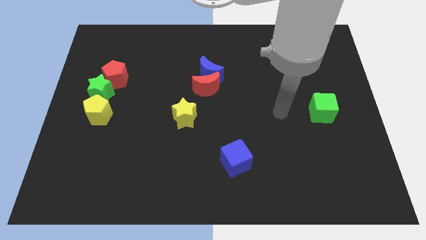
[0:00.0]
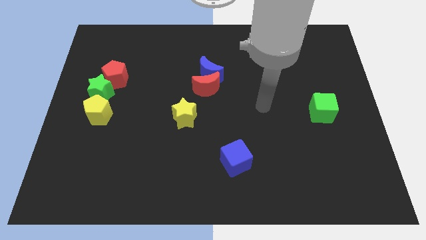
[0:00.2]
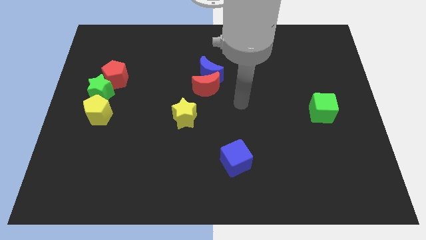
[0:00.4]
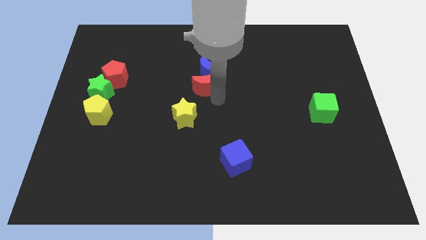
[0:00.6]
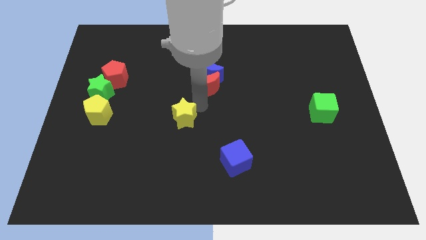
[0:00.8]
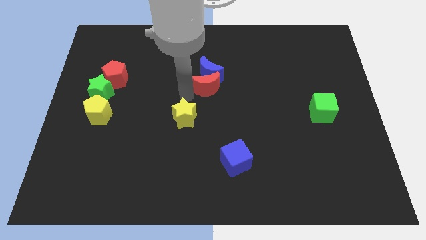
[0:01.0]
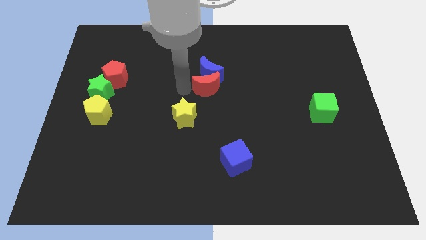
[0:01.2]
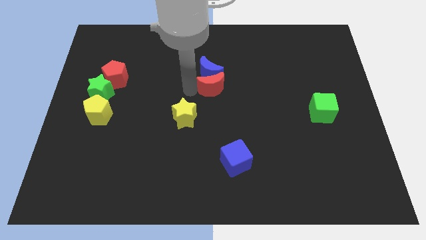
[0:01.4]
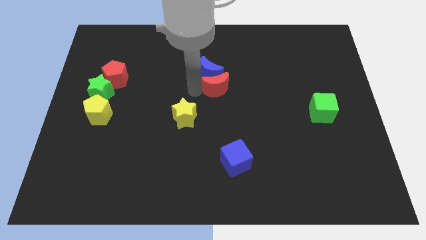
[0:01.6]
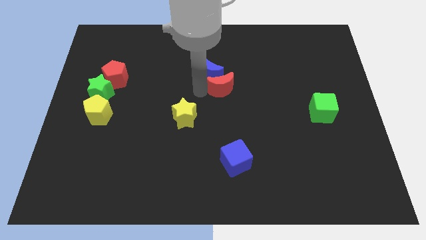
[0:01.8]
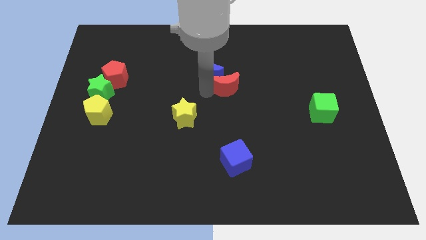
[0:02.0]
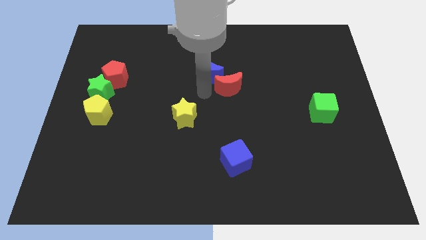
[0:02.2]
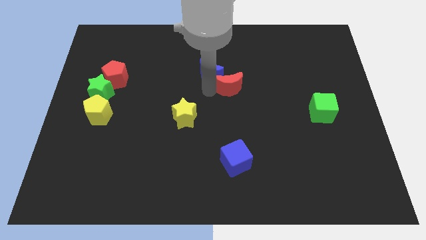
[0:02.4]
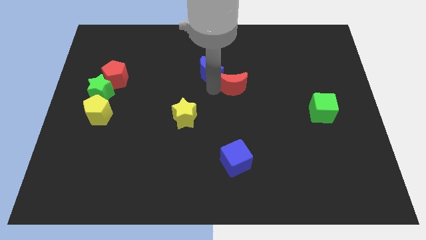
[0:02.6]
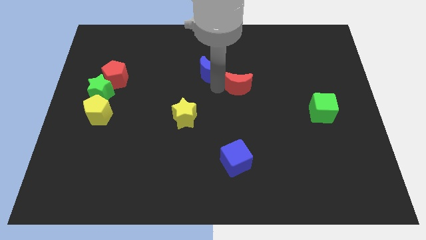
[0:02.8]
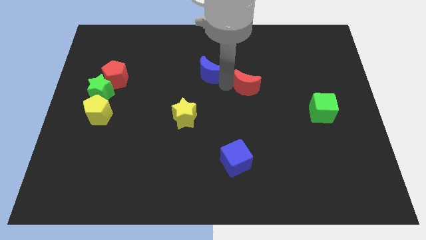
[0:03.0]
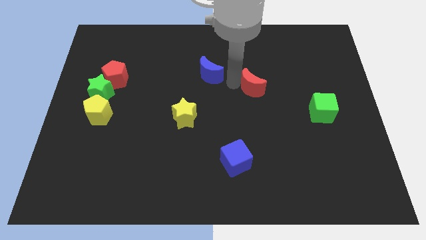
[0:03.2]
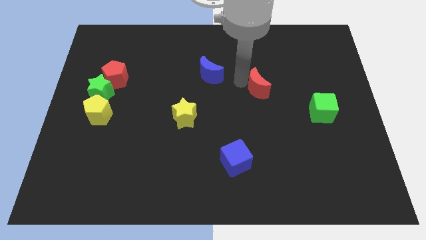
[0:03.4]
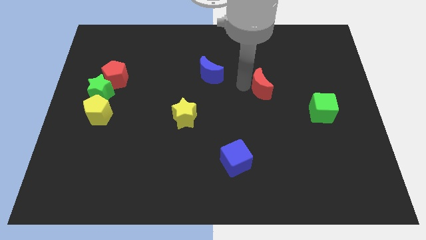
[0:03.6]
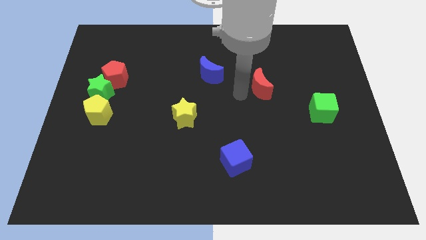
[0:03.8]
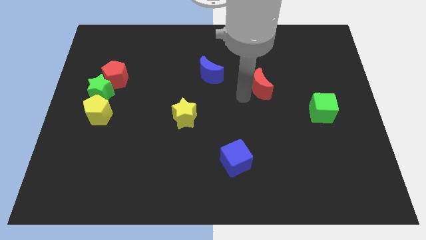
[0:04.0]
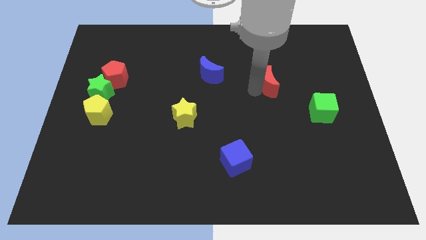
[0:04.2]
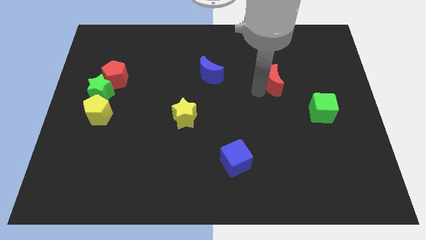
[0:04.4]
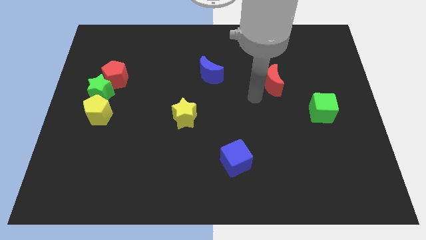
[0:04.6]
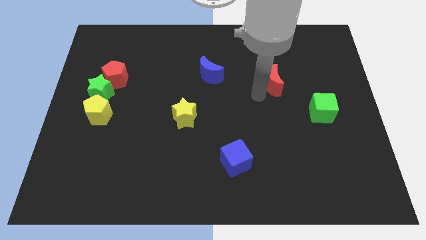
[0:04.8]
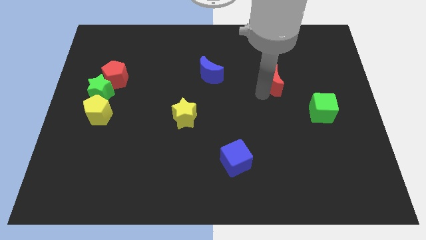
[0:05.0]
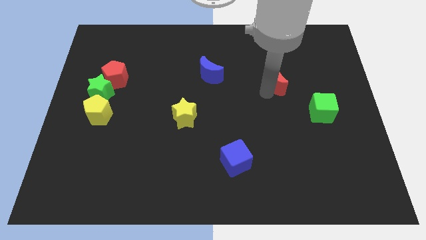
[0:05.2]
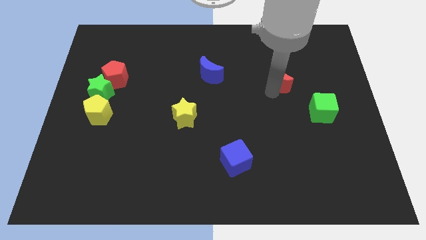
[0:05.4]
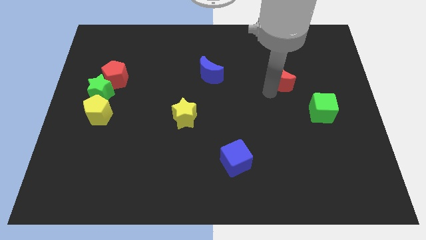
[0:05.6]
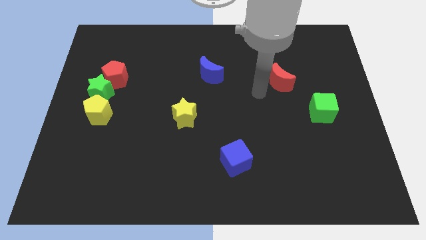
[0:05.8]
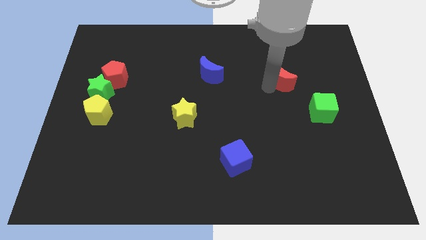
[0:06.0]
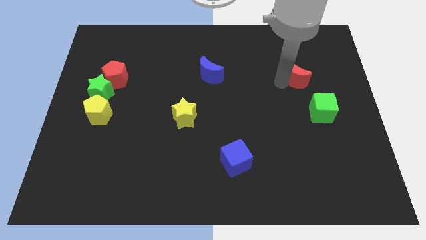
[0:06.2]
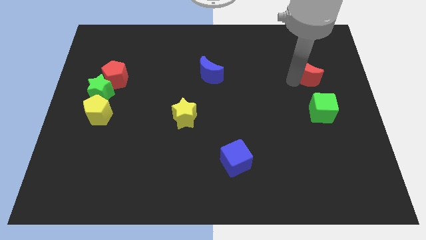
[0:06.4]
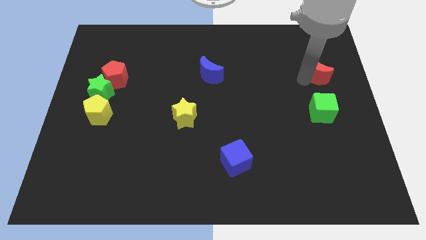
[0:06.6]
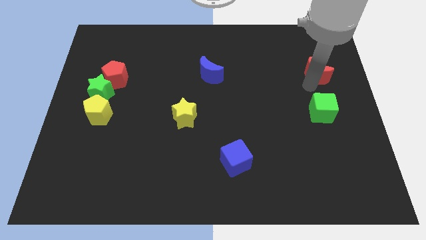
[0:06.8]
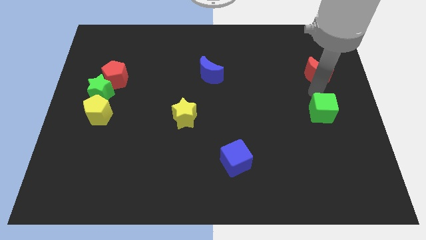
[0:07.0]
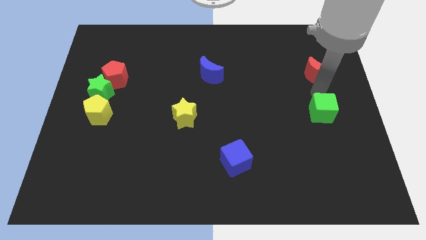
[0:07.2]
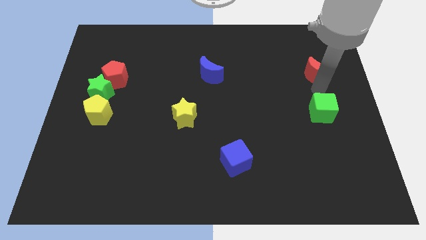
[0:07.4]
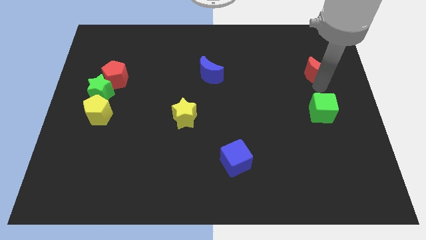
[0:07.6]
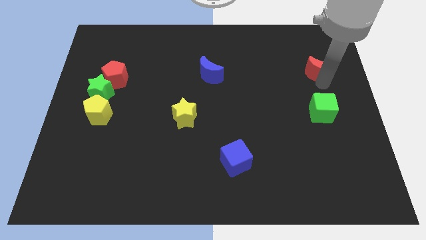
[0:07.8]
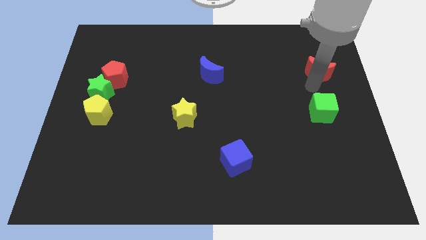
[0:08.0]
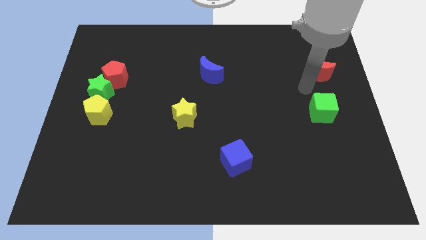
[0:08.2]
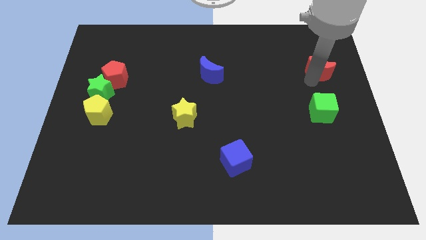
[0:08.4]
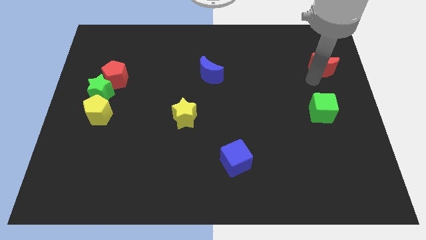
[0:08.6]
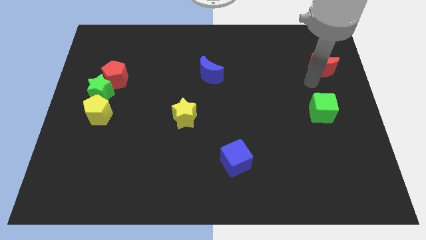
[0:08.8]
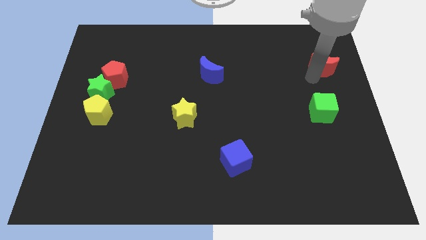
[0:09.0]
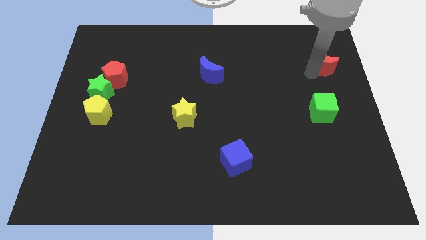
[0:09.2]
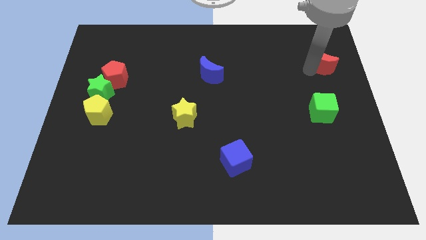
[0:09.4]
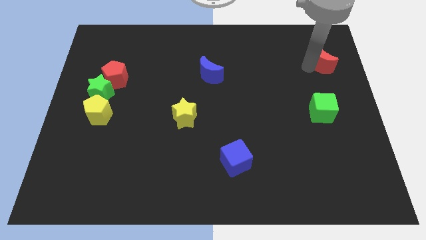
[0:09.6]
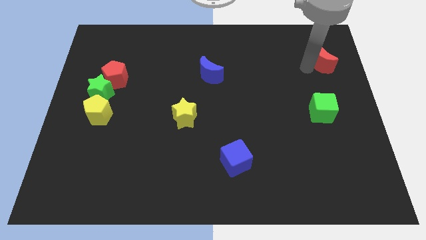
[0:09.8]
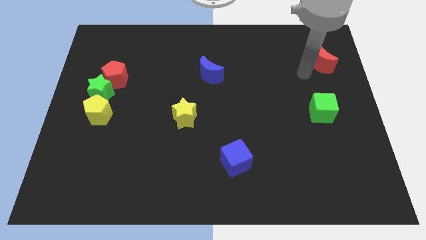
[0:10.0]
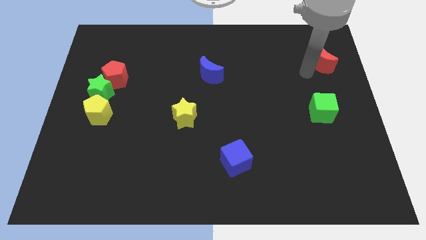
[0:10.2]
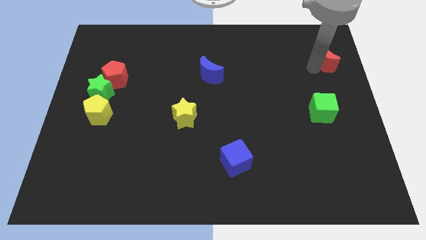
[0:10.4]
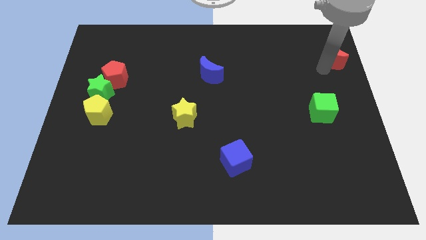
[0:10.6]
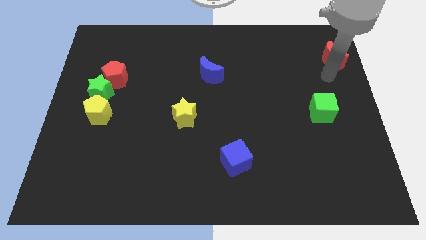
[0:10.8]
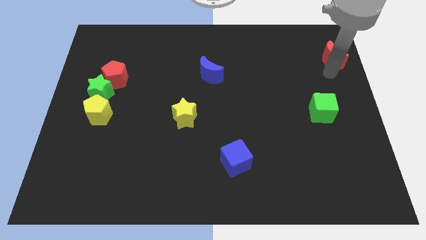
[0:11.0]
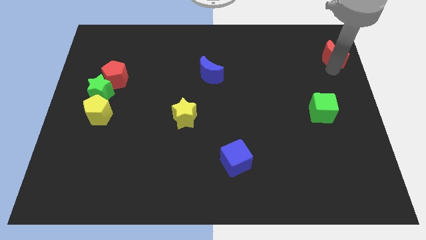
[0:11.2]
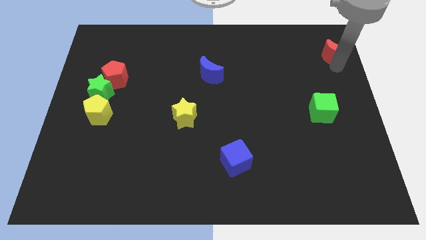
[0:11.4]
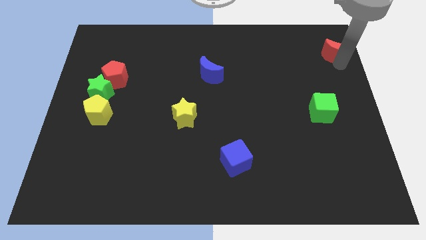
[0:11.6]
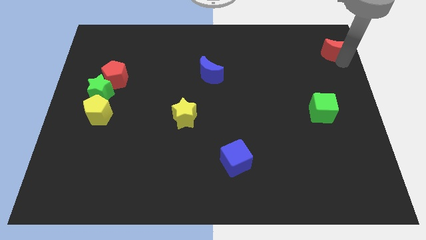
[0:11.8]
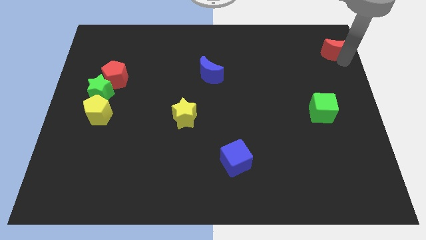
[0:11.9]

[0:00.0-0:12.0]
put the red moon to the upper right corner
